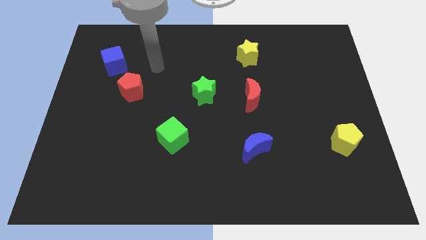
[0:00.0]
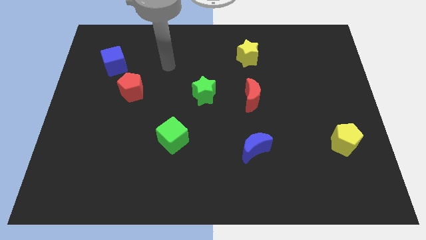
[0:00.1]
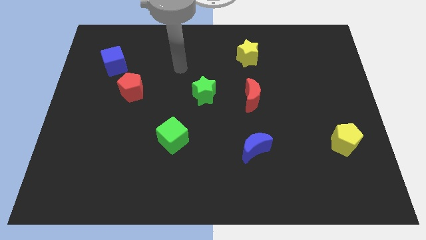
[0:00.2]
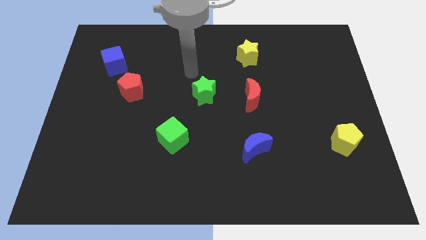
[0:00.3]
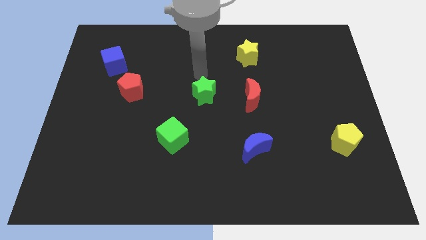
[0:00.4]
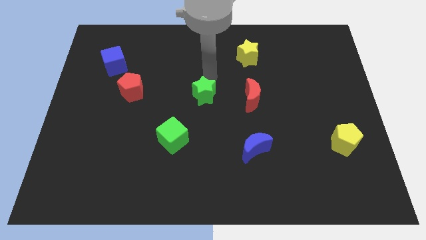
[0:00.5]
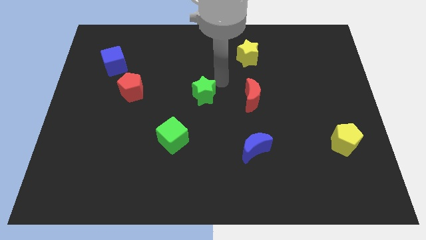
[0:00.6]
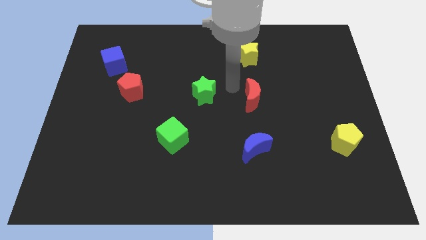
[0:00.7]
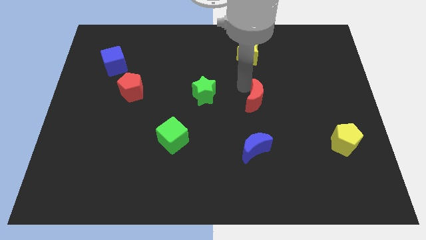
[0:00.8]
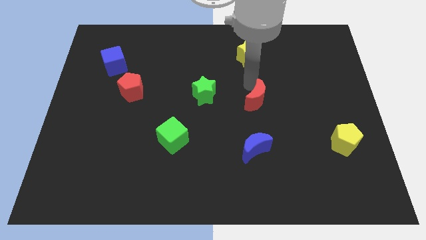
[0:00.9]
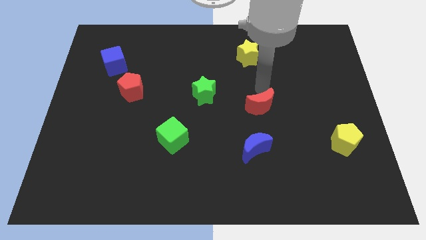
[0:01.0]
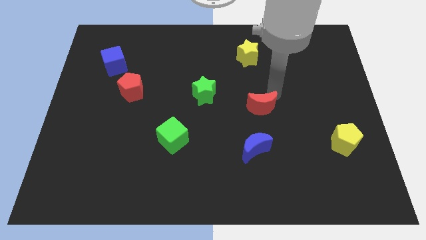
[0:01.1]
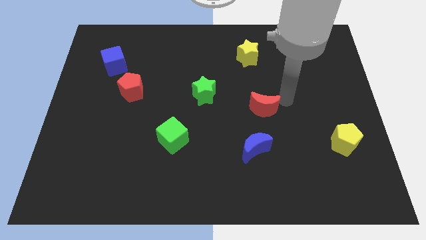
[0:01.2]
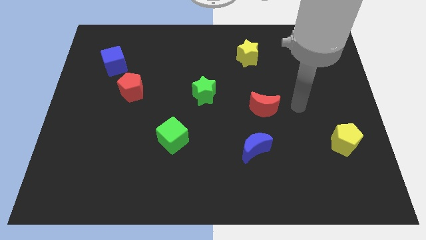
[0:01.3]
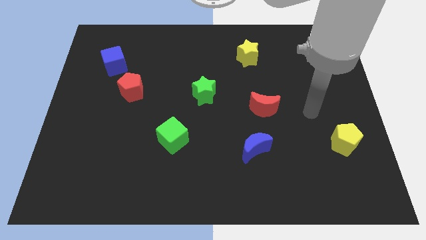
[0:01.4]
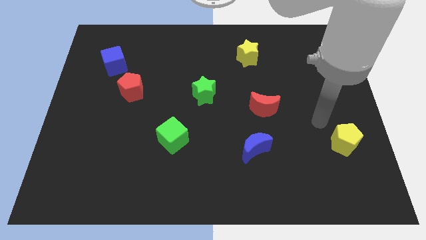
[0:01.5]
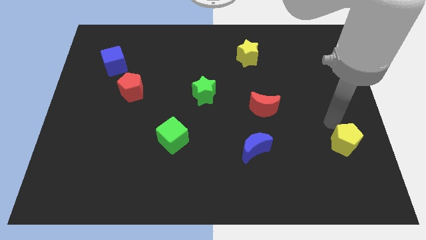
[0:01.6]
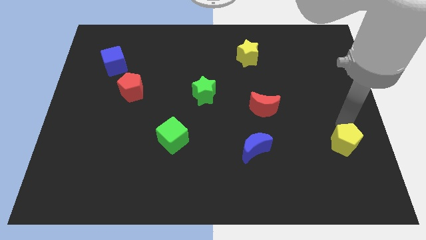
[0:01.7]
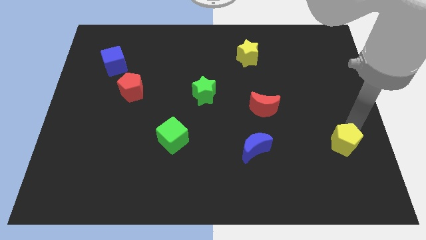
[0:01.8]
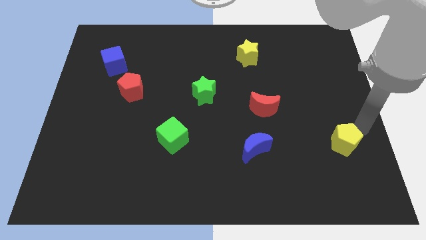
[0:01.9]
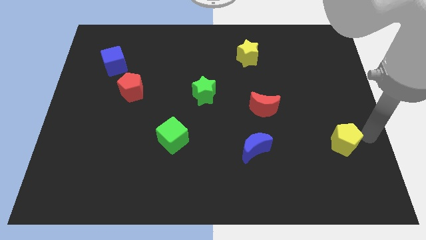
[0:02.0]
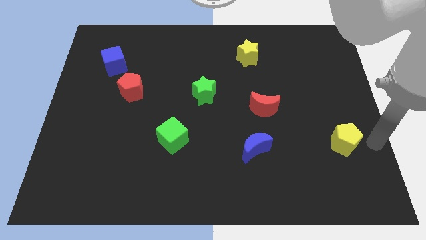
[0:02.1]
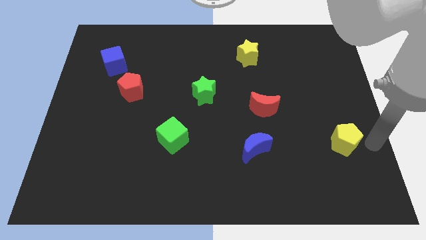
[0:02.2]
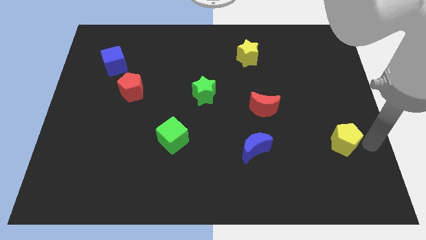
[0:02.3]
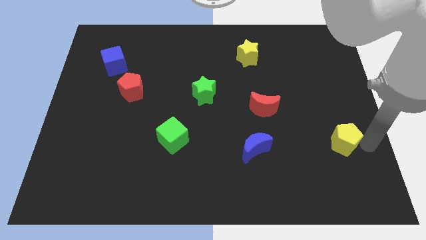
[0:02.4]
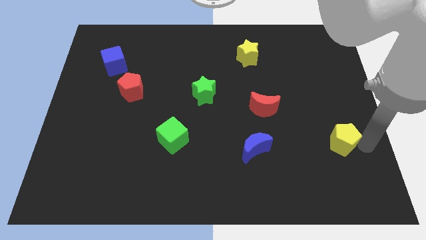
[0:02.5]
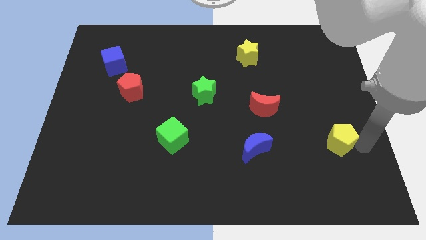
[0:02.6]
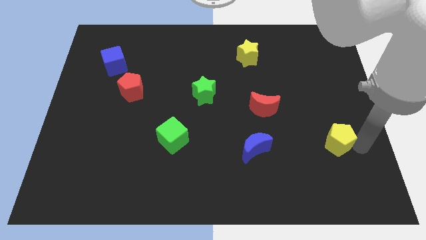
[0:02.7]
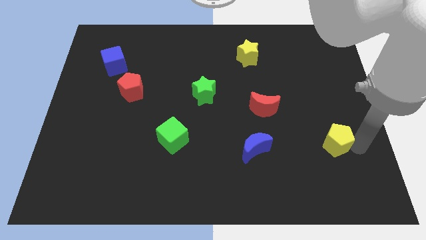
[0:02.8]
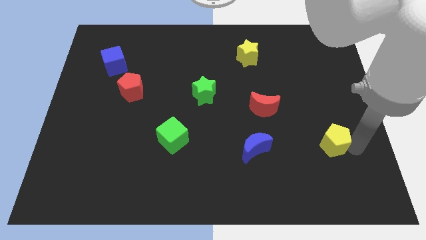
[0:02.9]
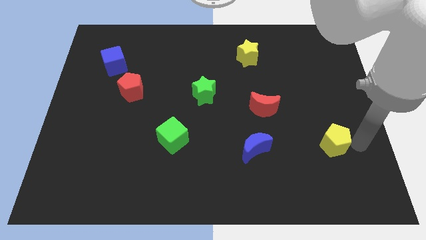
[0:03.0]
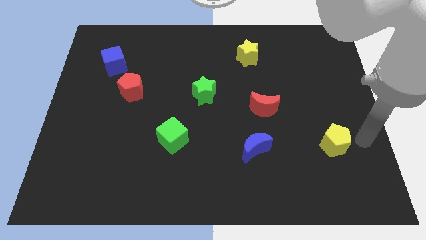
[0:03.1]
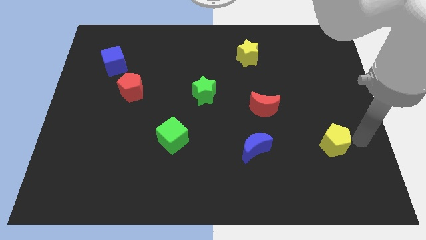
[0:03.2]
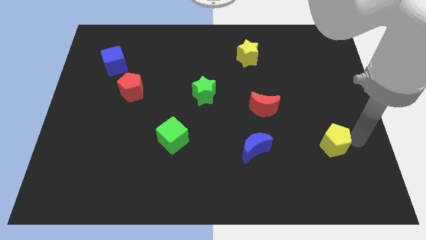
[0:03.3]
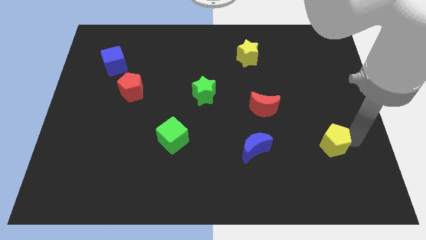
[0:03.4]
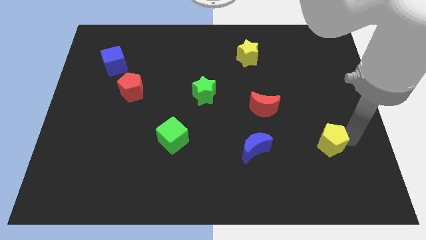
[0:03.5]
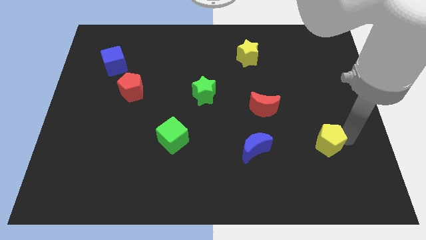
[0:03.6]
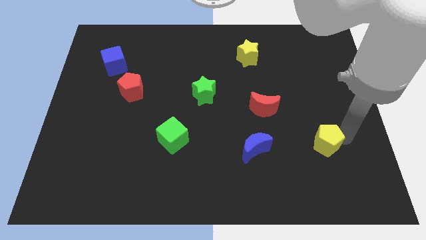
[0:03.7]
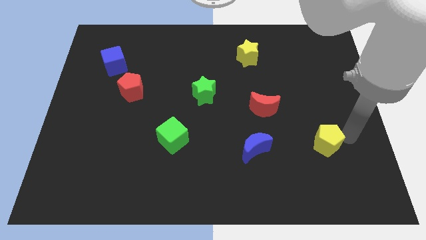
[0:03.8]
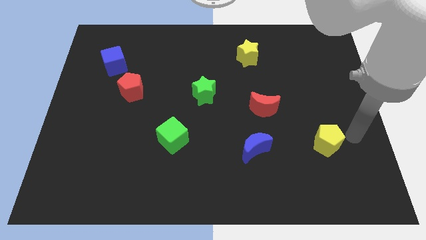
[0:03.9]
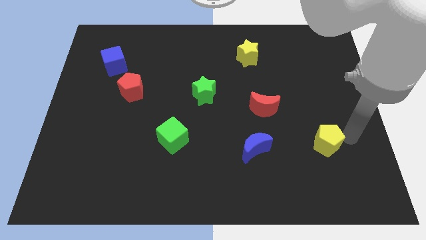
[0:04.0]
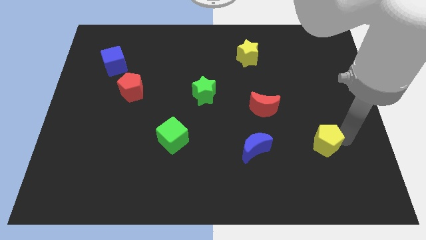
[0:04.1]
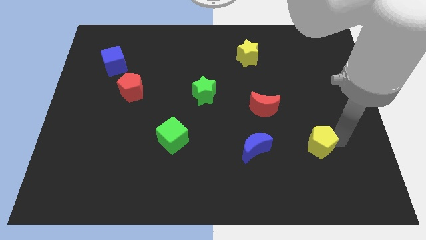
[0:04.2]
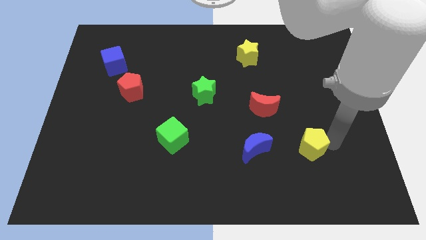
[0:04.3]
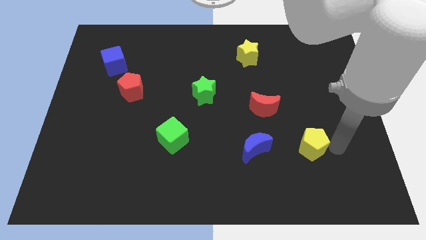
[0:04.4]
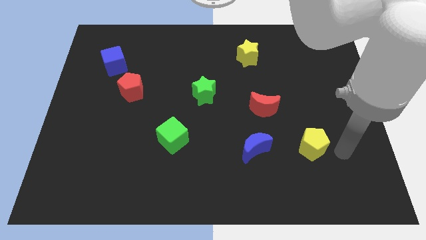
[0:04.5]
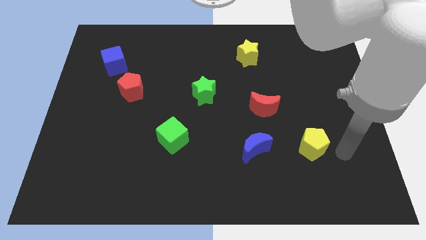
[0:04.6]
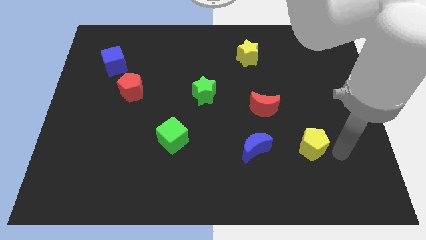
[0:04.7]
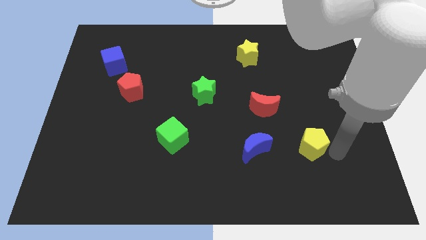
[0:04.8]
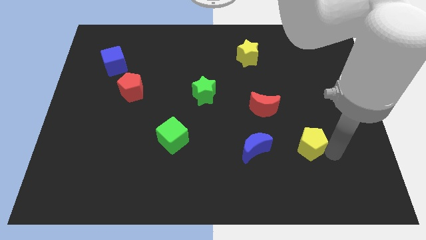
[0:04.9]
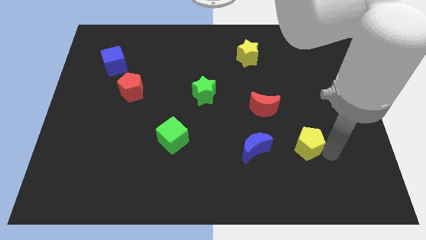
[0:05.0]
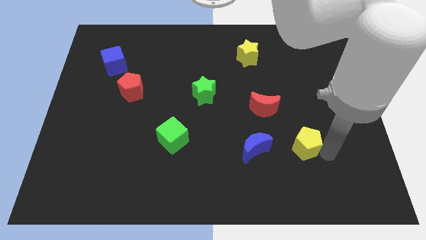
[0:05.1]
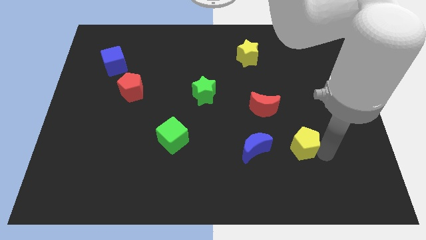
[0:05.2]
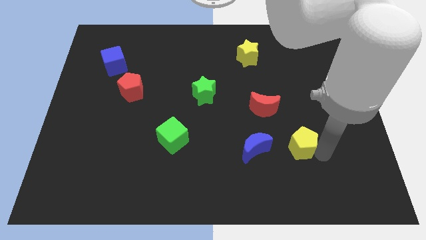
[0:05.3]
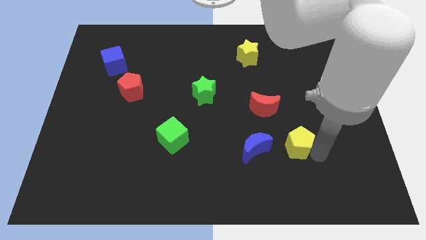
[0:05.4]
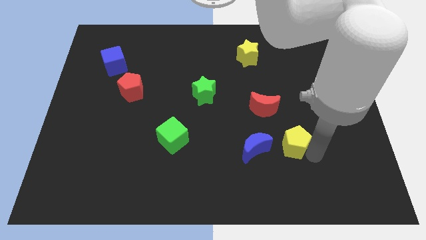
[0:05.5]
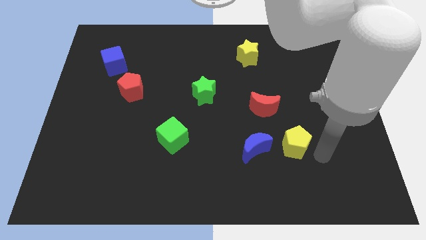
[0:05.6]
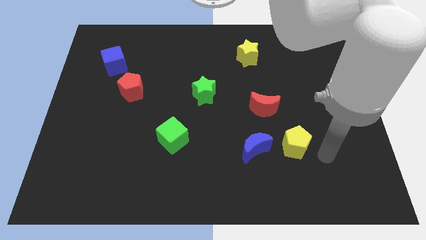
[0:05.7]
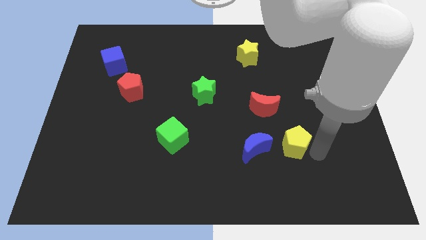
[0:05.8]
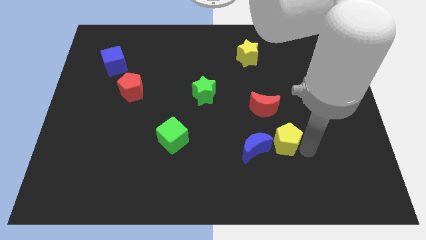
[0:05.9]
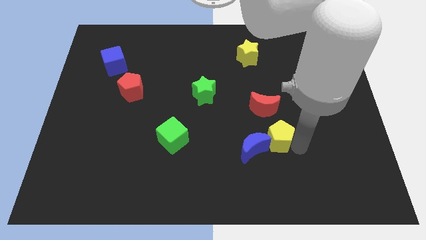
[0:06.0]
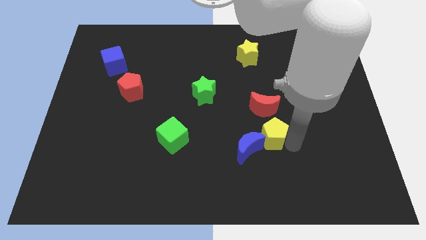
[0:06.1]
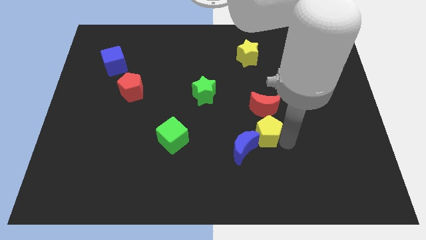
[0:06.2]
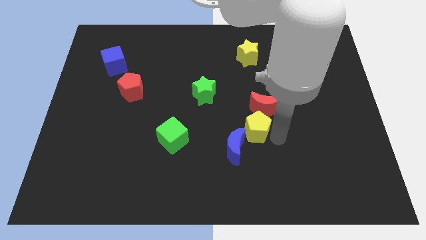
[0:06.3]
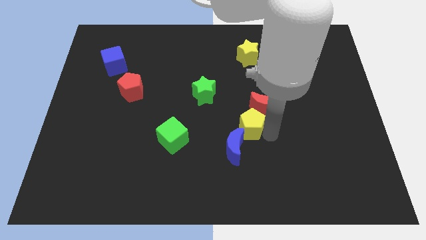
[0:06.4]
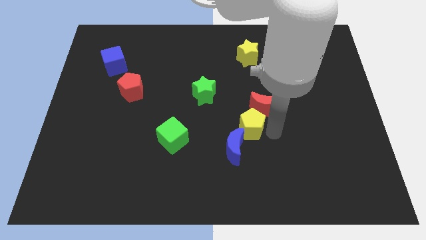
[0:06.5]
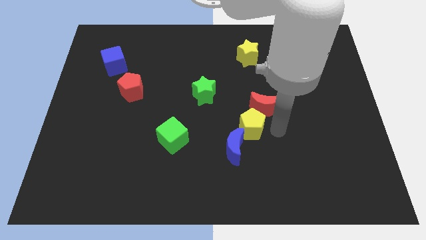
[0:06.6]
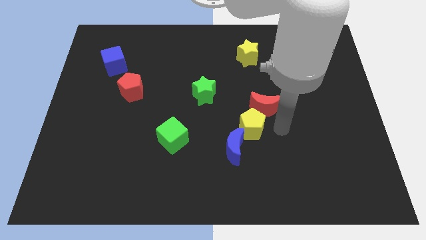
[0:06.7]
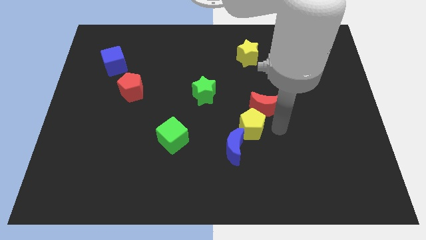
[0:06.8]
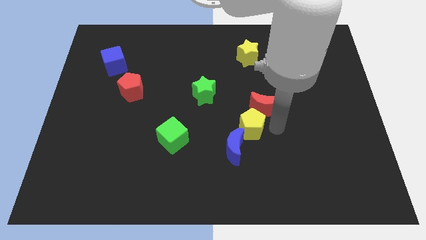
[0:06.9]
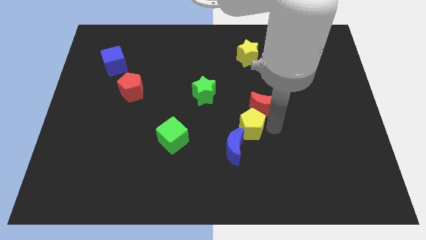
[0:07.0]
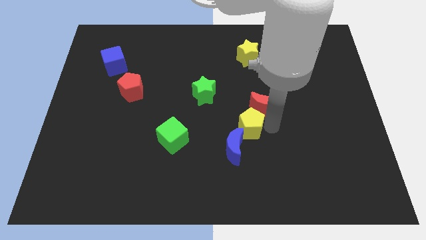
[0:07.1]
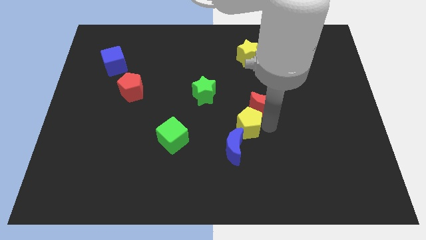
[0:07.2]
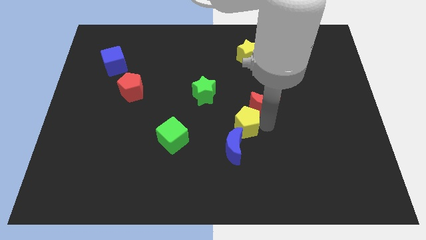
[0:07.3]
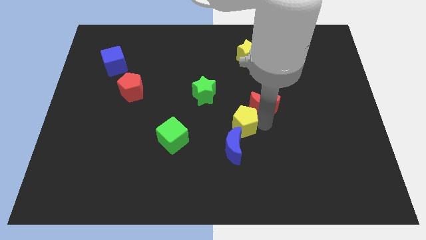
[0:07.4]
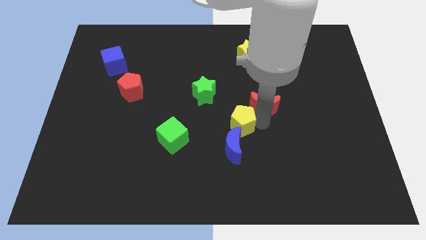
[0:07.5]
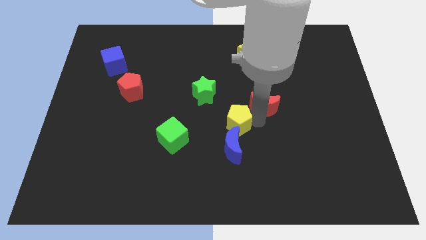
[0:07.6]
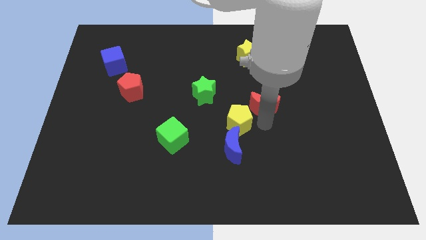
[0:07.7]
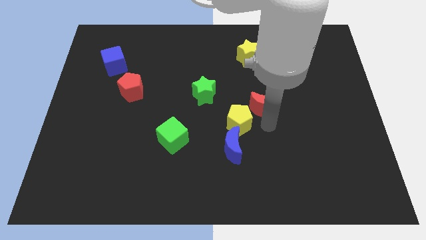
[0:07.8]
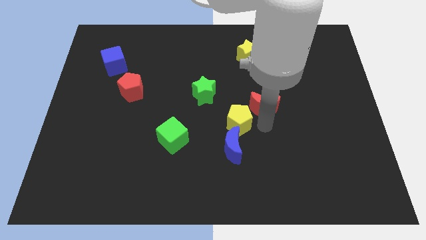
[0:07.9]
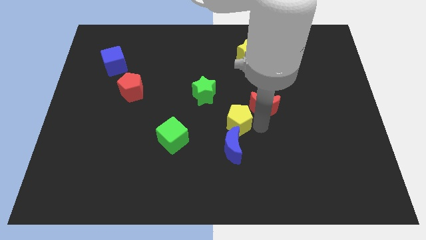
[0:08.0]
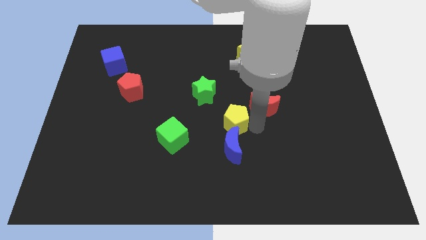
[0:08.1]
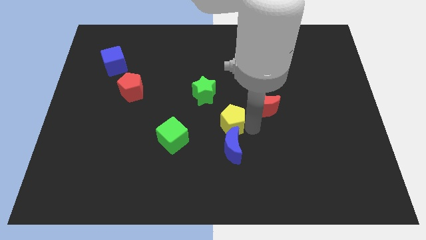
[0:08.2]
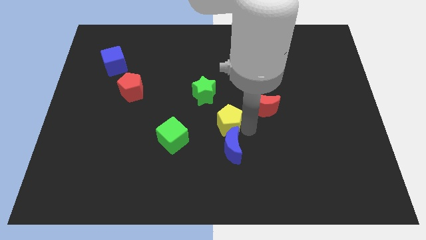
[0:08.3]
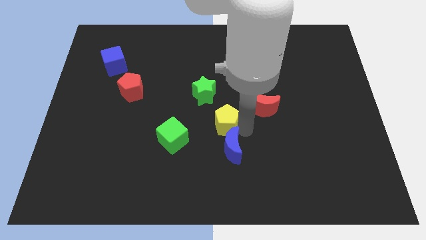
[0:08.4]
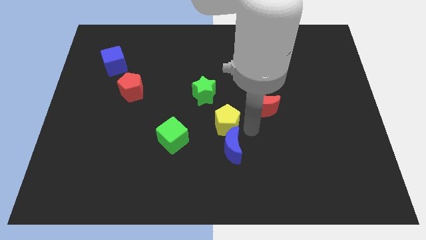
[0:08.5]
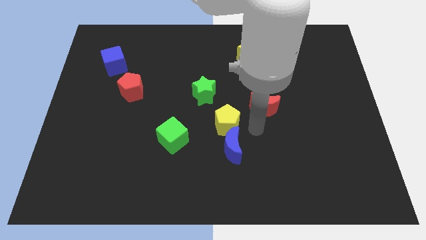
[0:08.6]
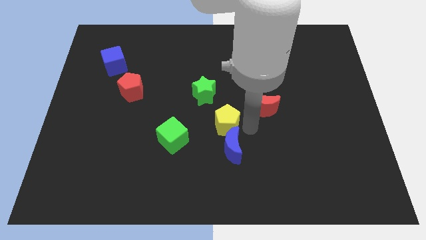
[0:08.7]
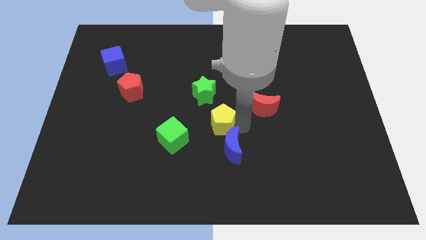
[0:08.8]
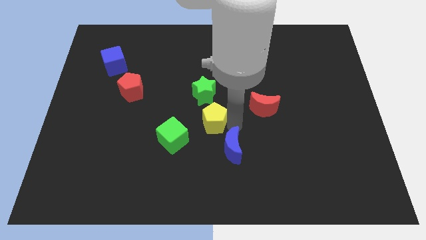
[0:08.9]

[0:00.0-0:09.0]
push the yellow pentagon to the top right side of the green cube
